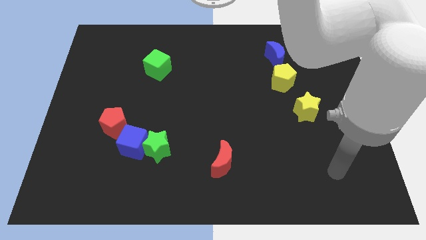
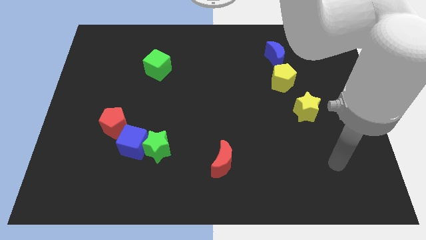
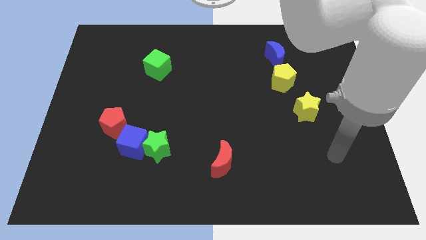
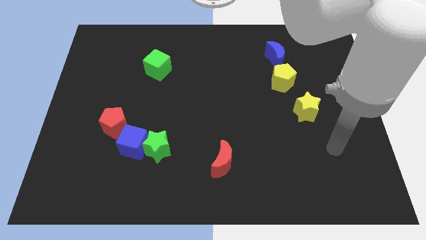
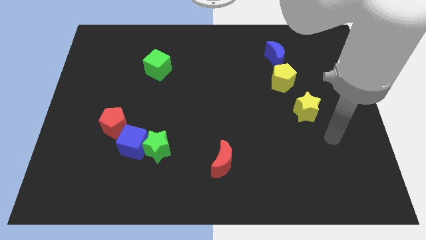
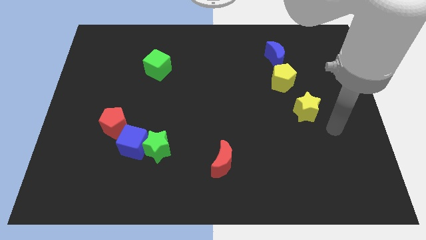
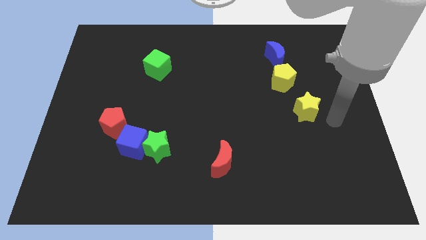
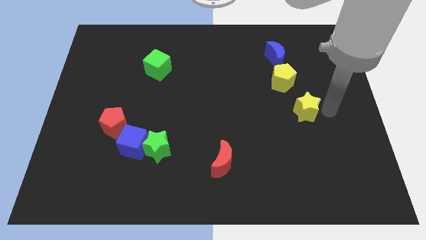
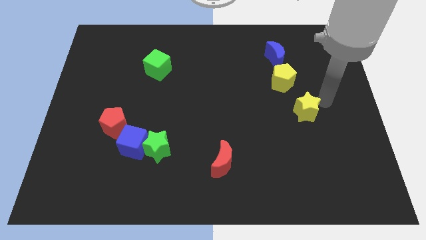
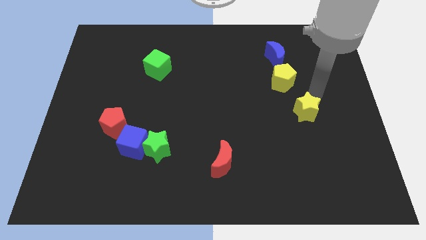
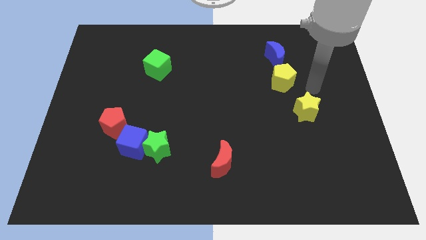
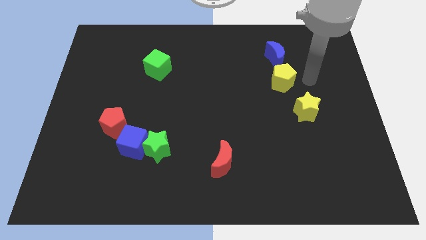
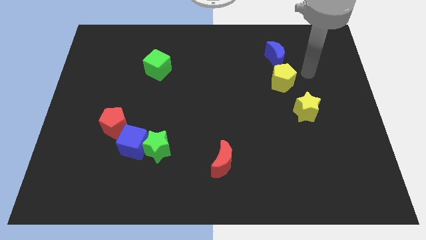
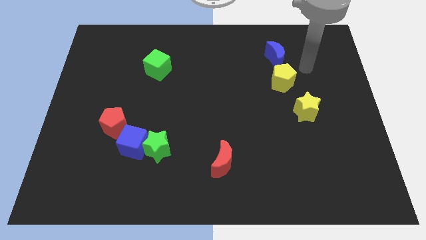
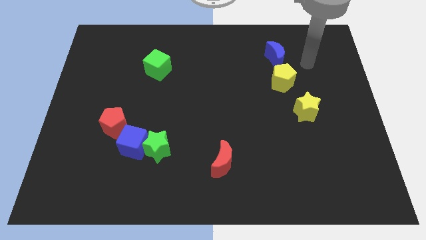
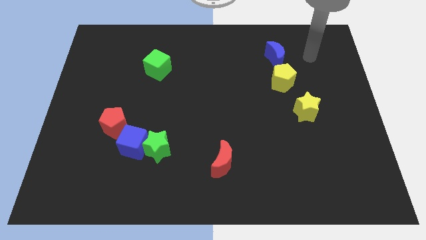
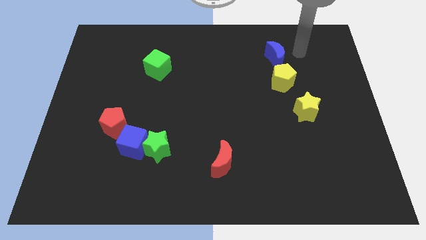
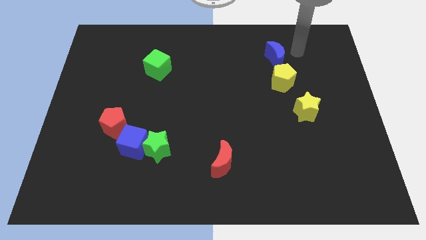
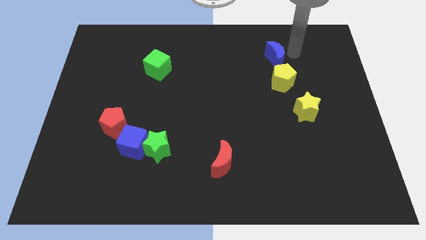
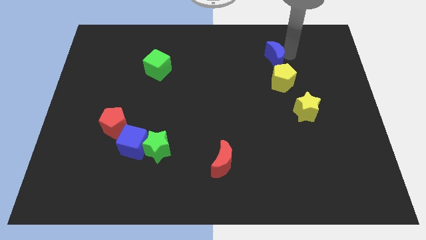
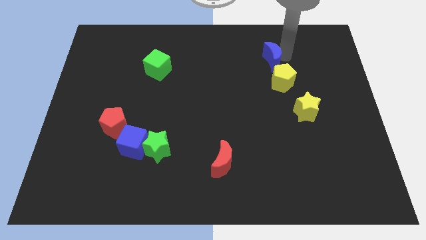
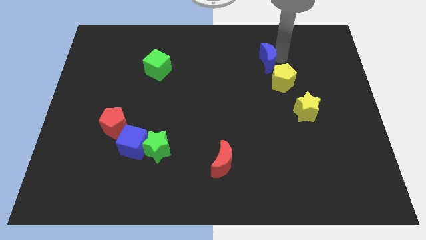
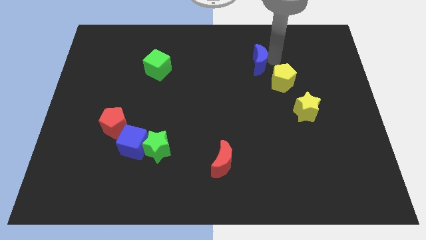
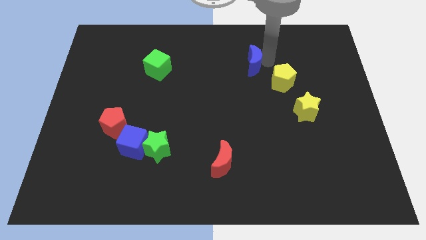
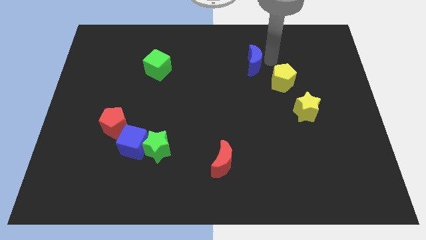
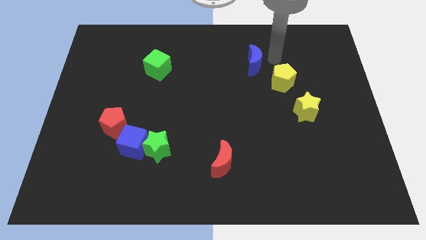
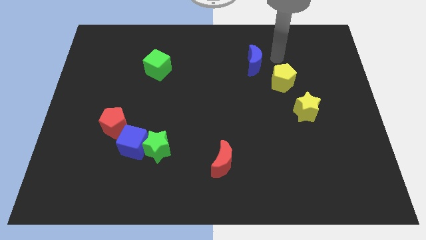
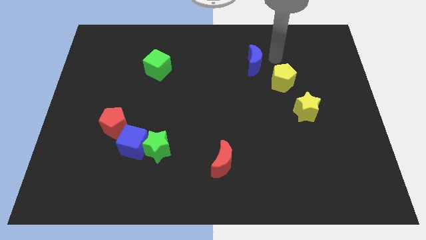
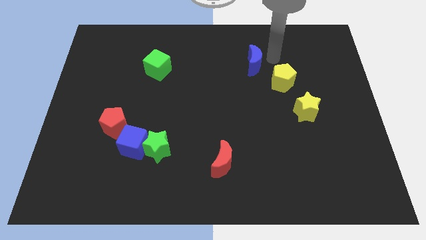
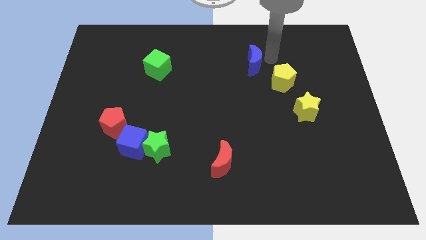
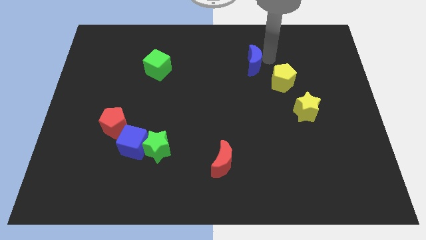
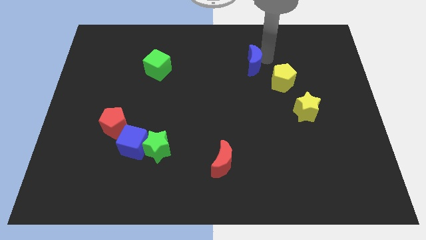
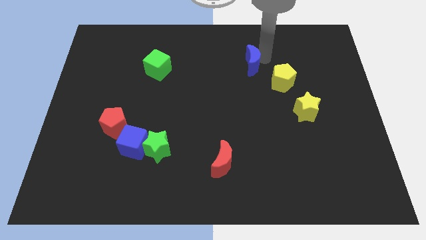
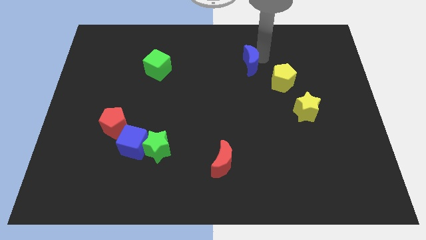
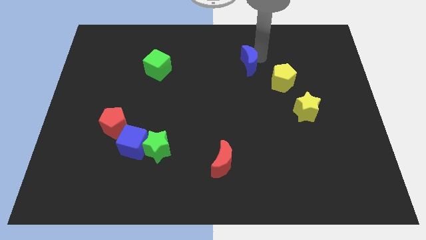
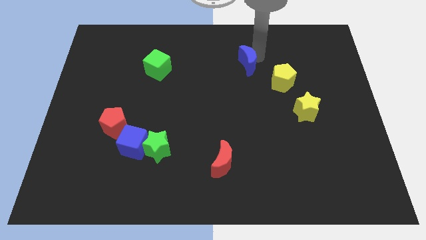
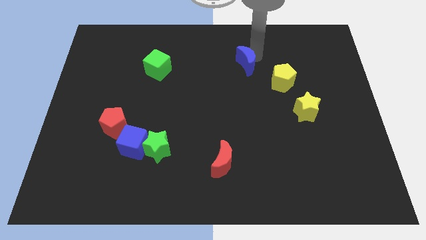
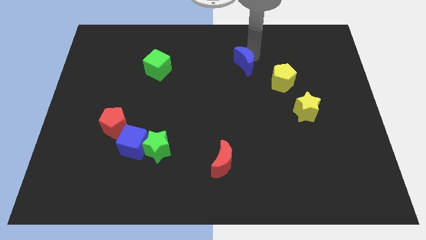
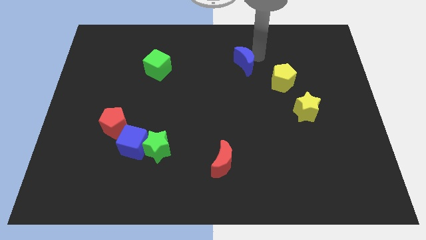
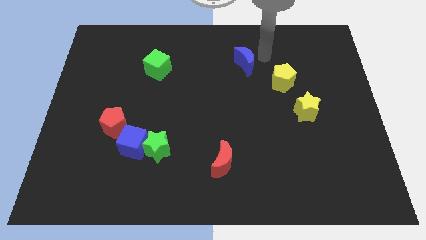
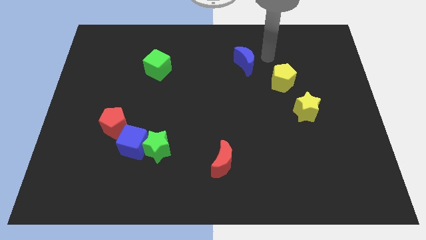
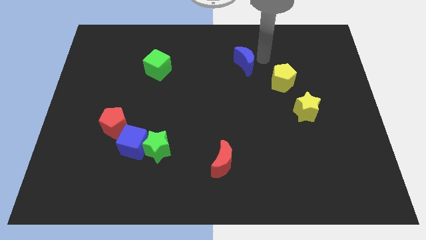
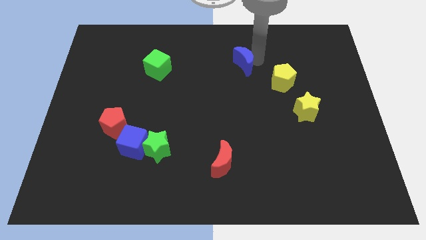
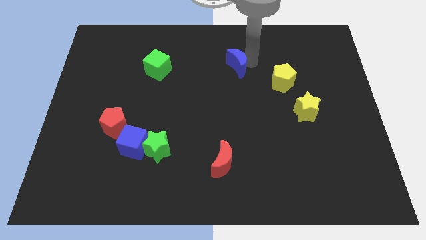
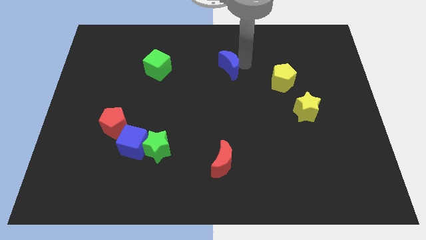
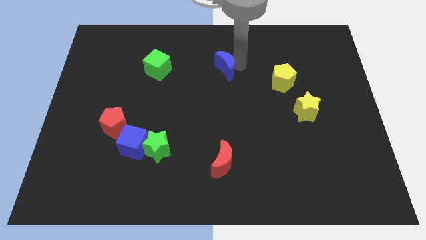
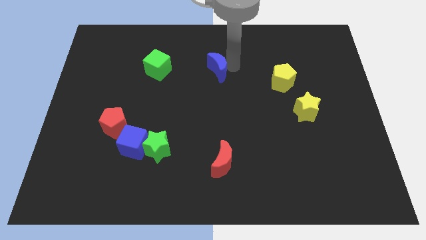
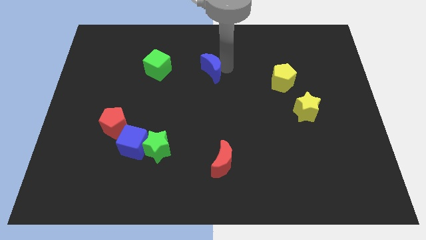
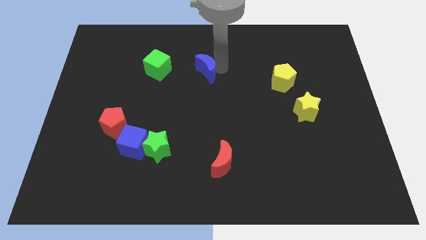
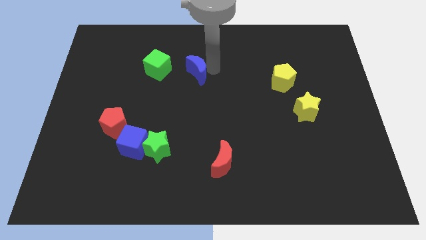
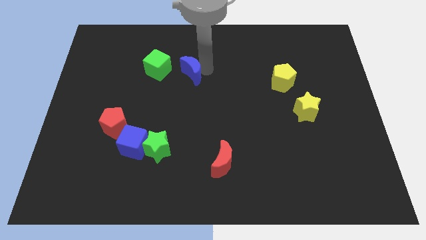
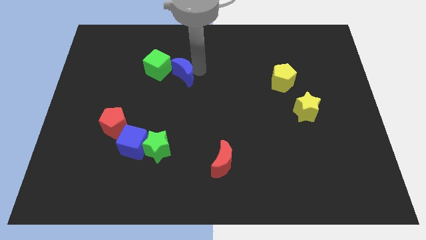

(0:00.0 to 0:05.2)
put the blue moon to the bottom right of the green cube

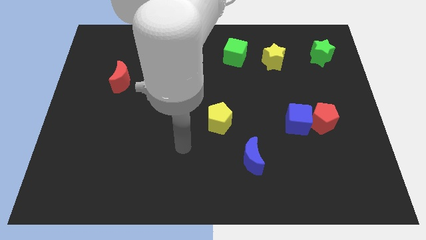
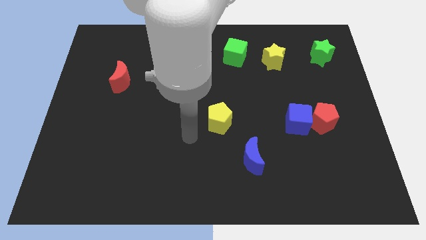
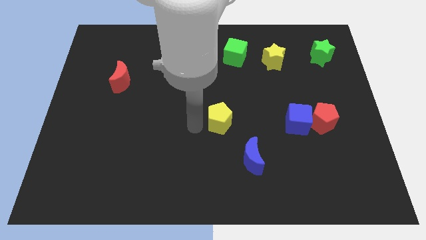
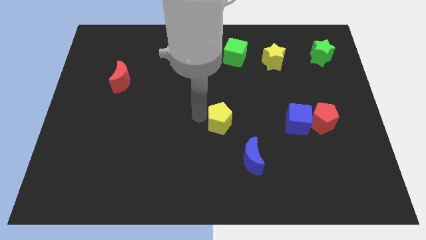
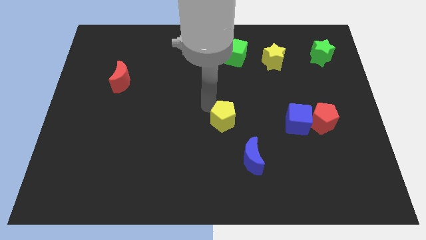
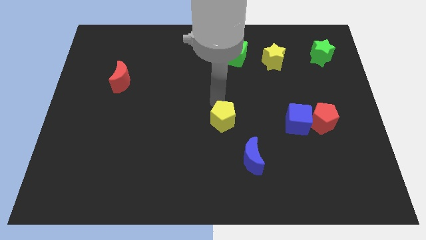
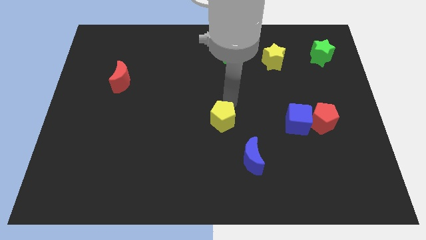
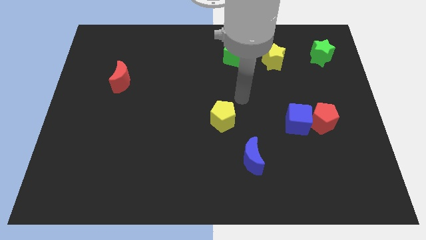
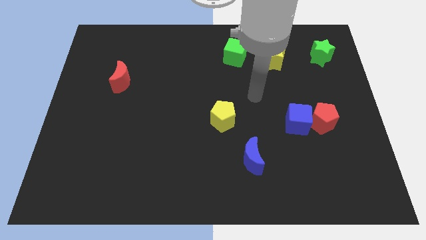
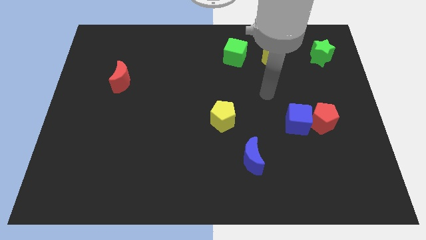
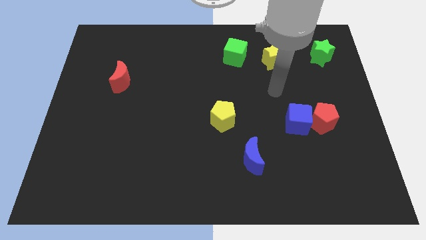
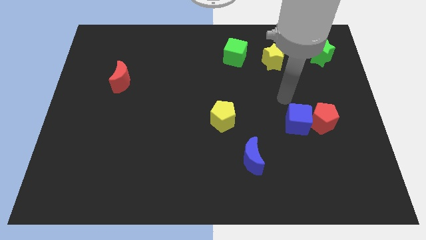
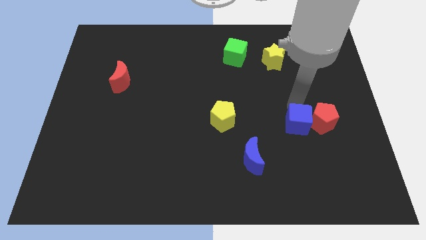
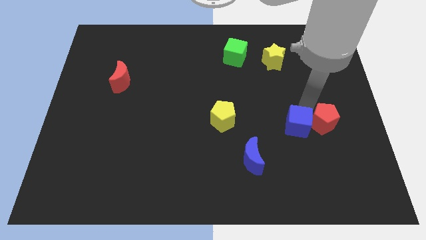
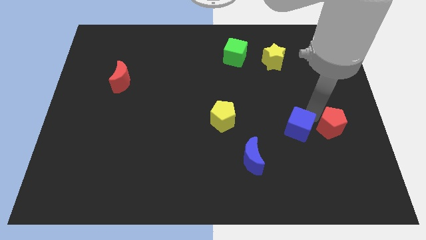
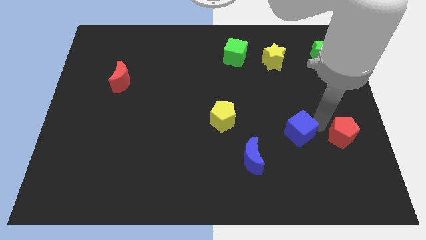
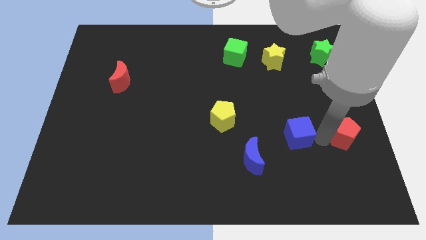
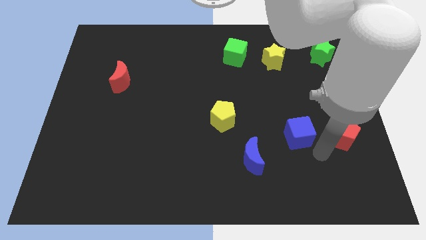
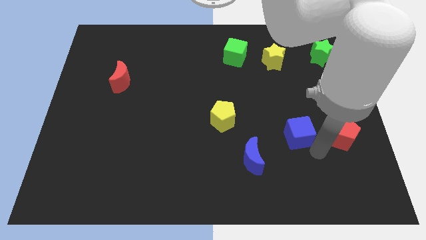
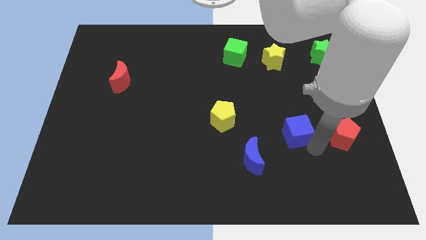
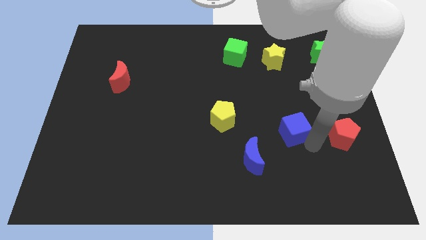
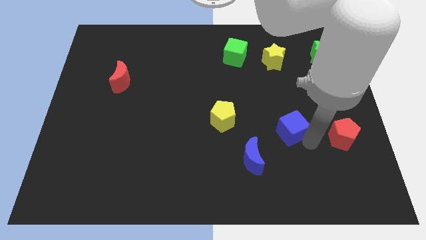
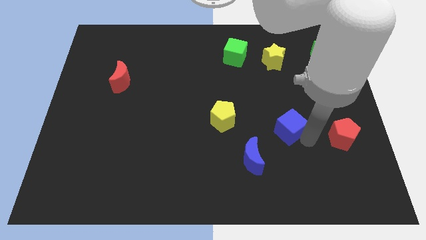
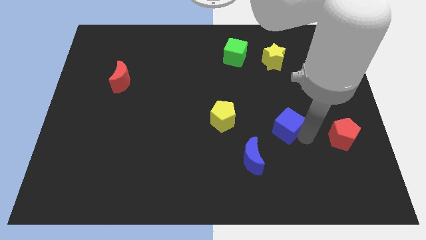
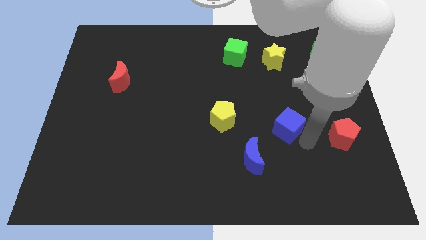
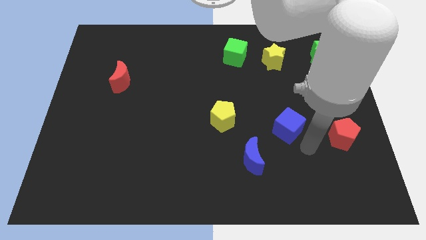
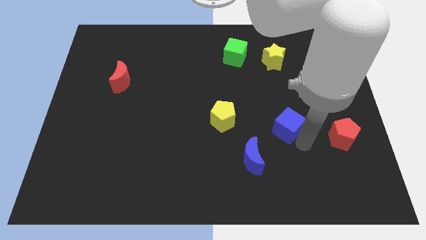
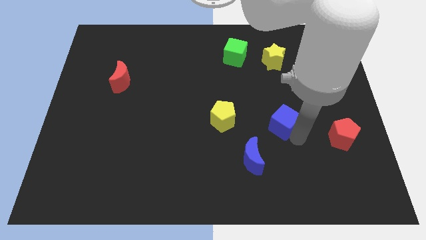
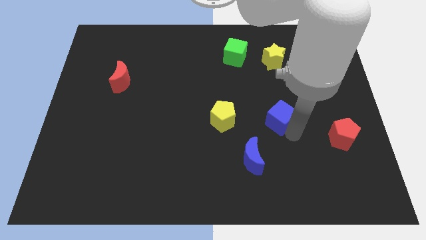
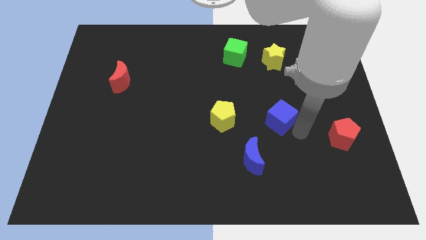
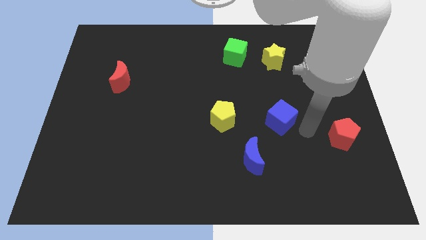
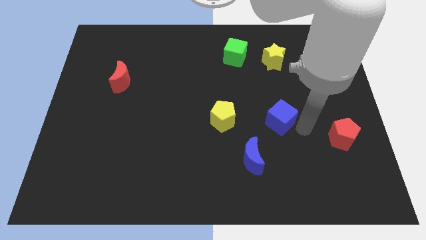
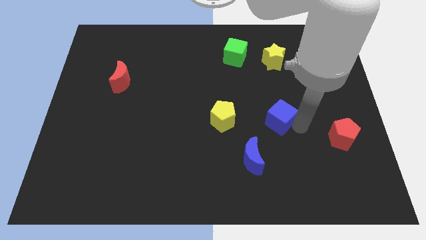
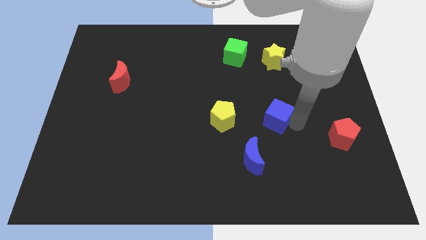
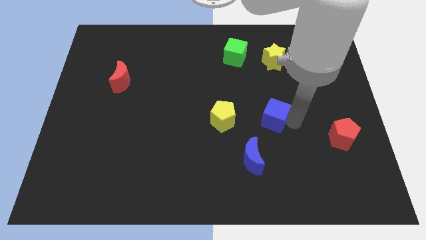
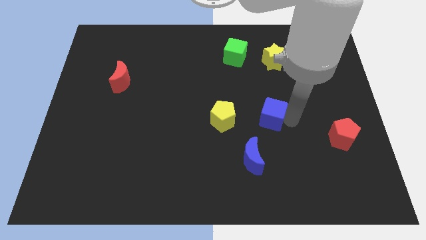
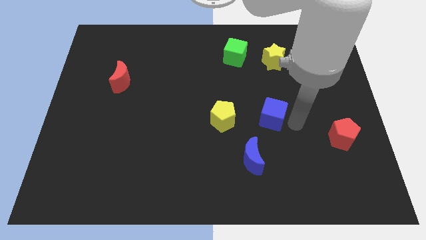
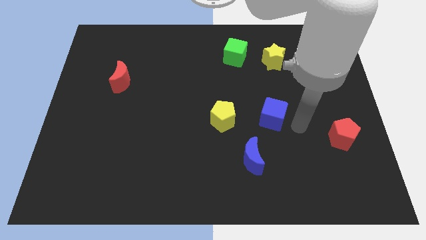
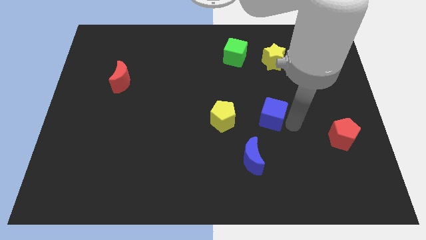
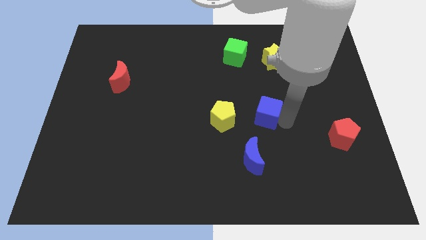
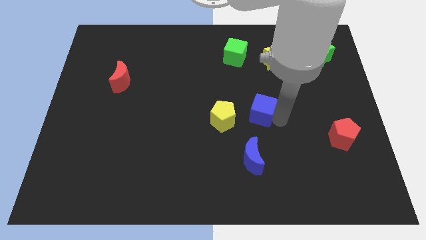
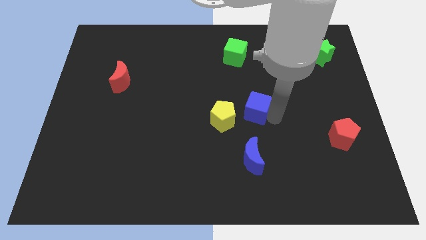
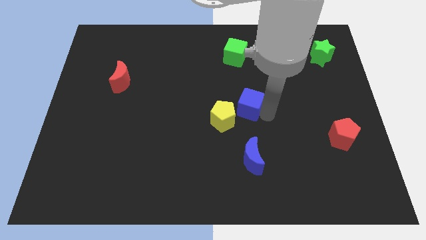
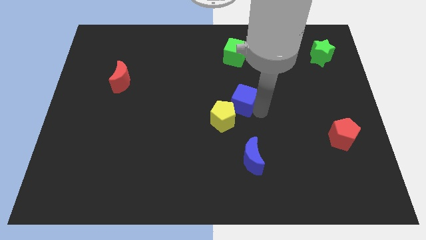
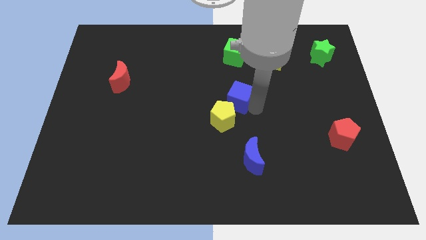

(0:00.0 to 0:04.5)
push the blue cube to the top of the yellow pentagon
